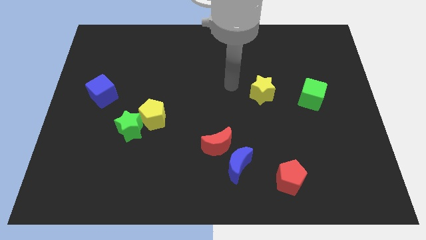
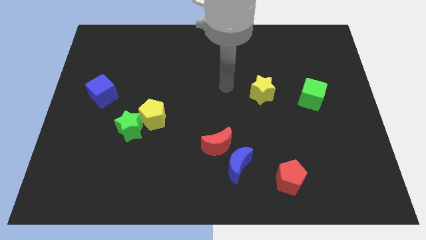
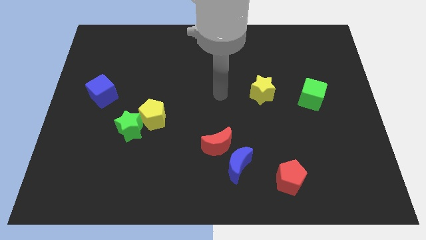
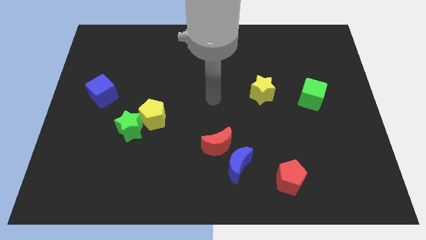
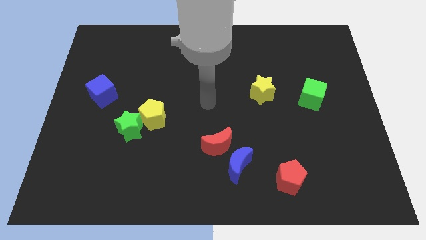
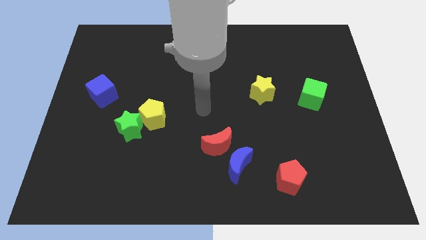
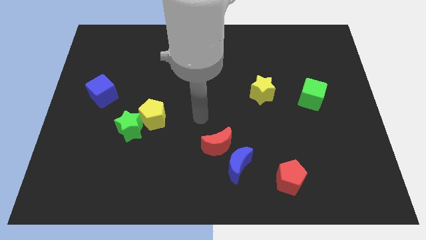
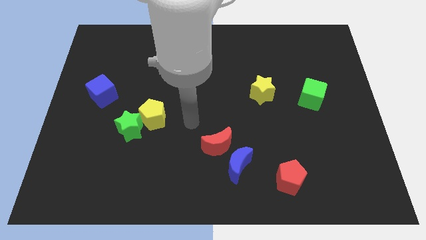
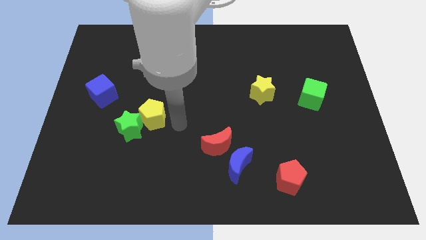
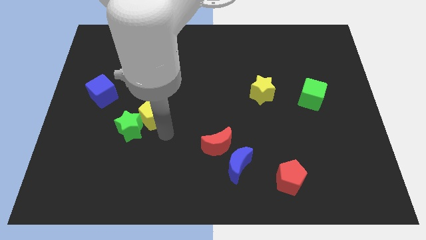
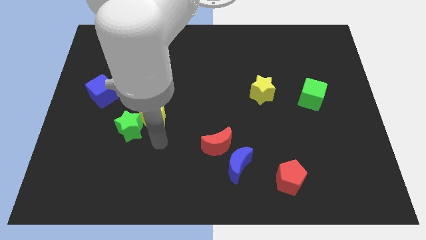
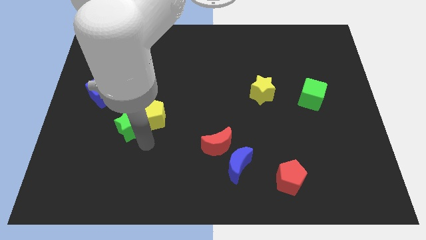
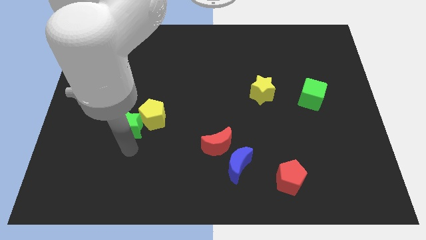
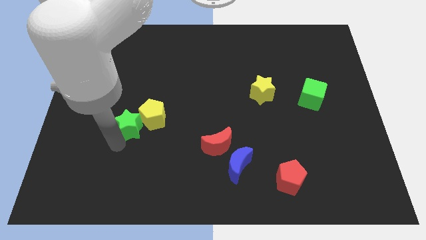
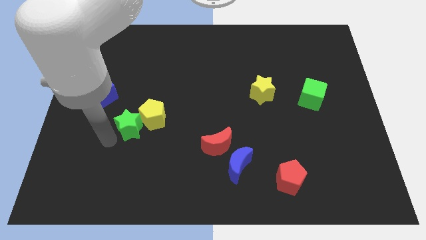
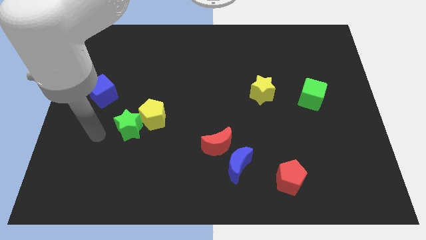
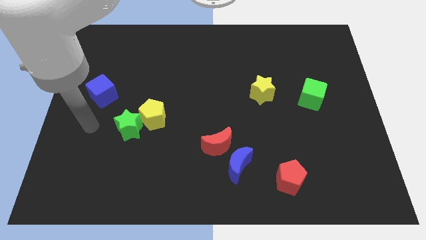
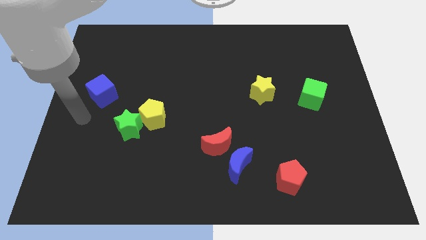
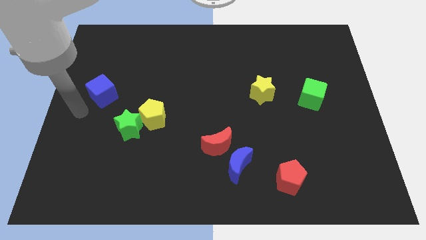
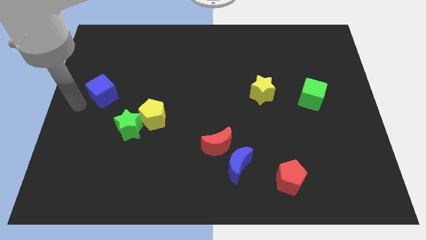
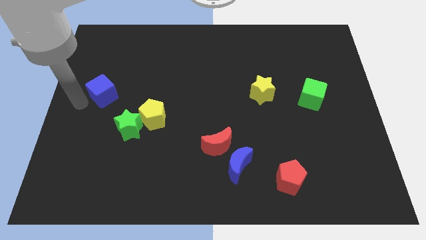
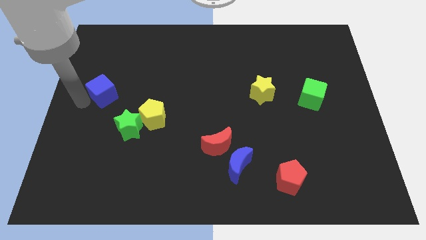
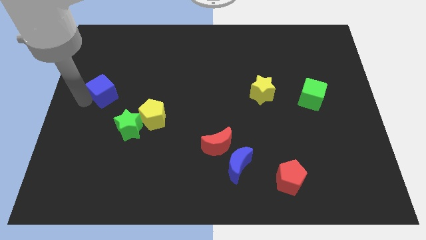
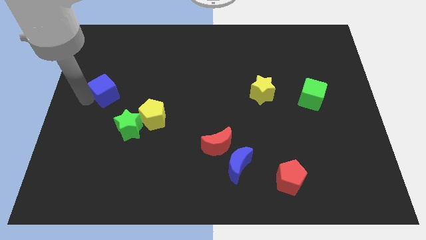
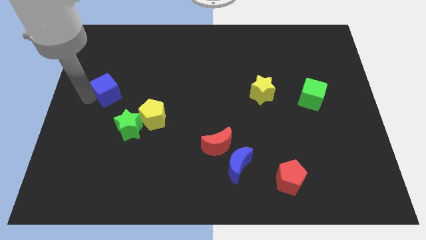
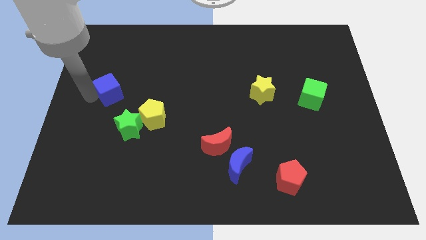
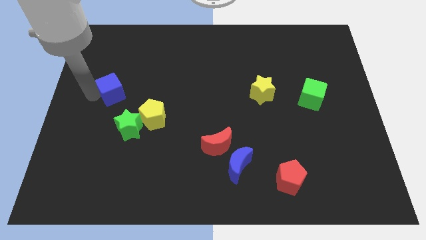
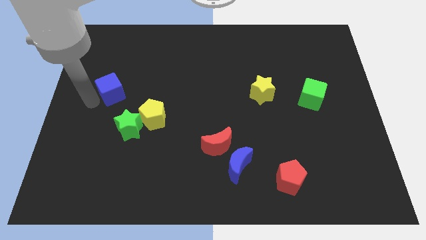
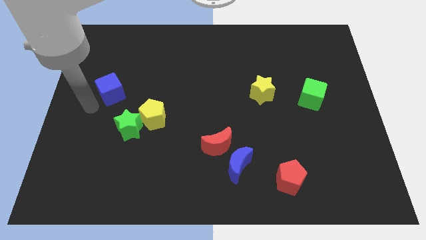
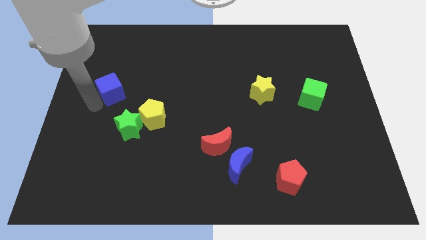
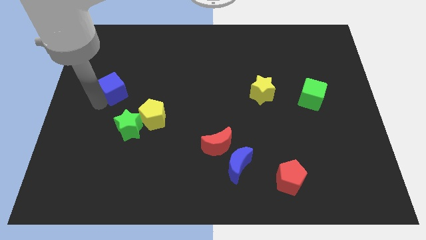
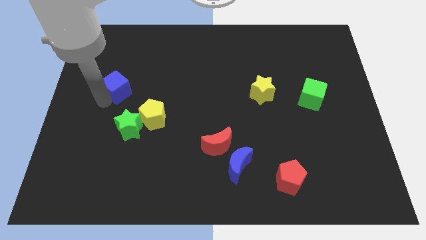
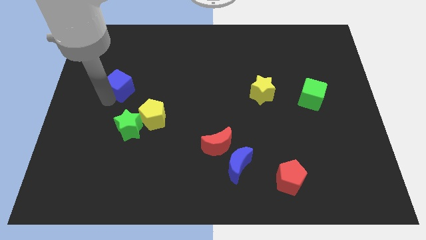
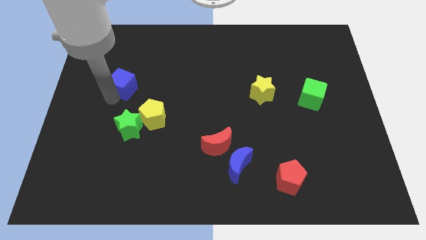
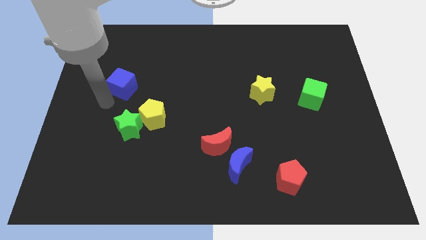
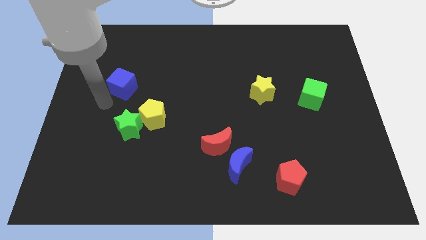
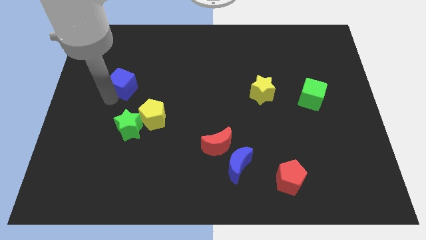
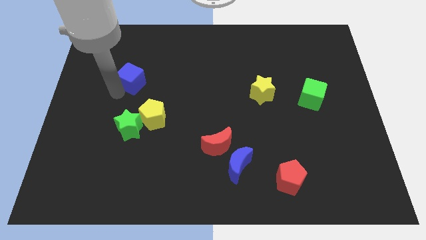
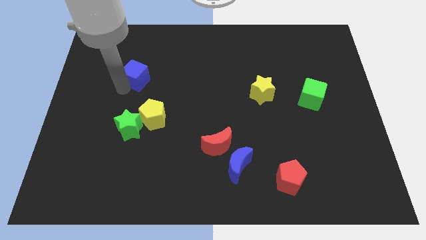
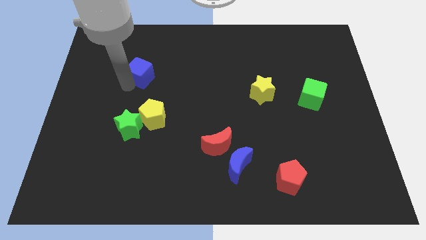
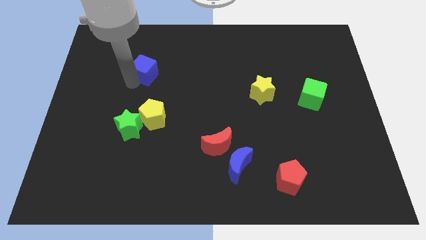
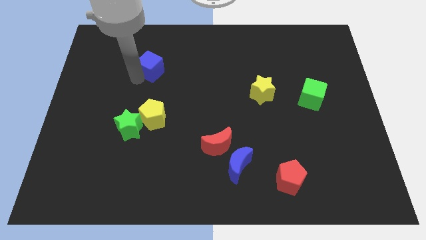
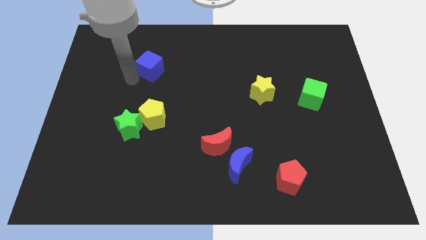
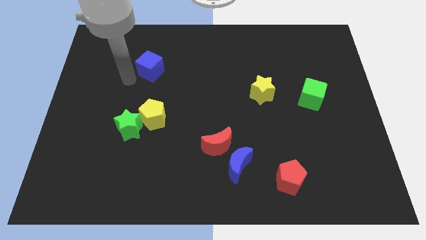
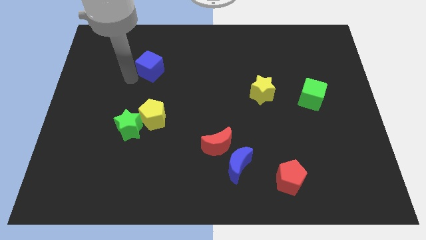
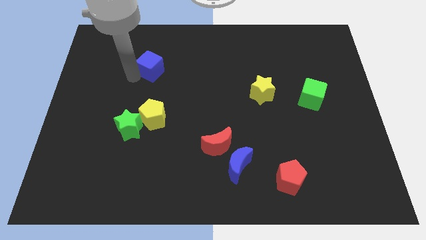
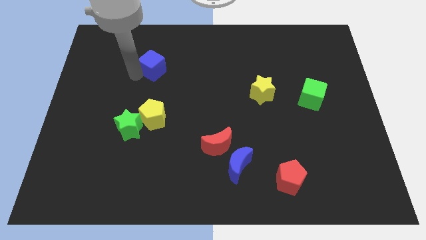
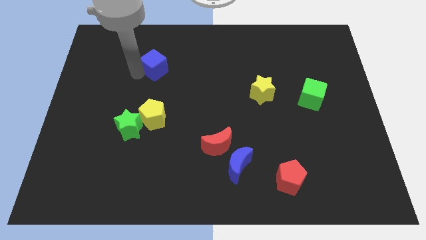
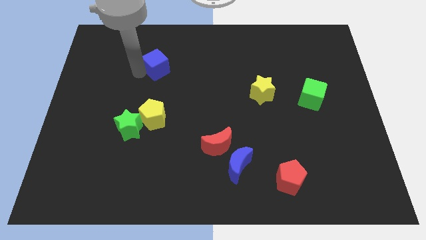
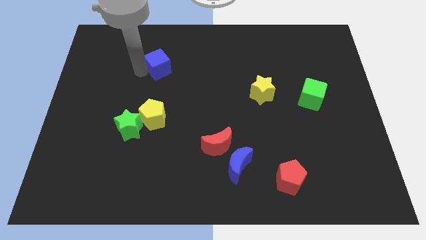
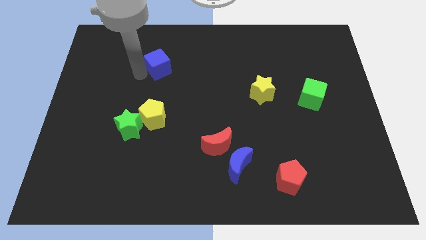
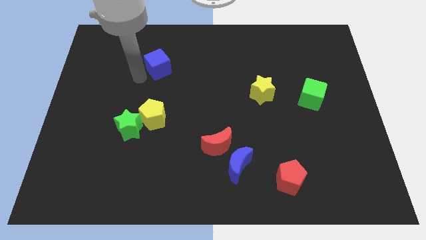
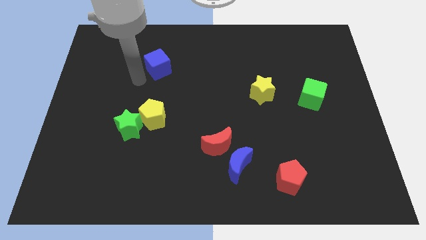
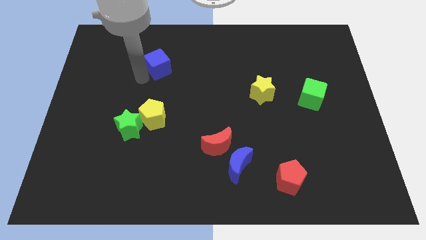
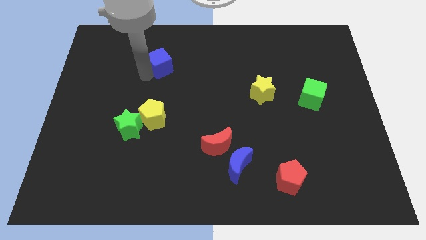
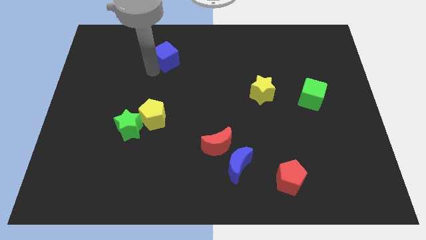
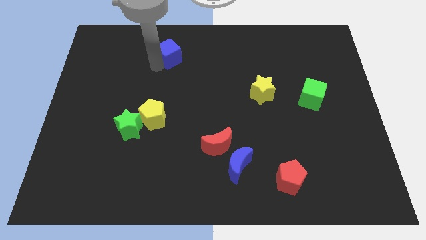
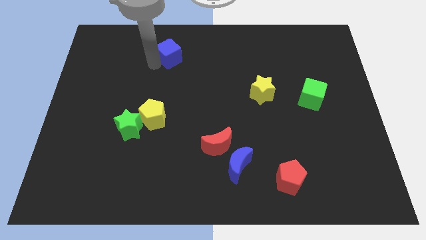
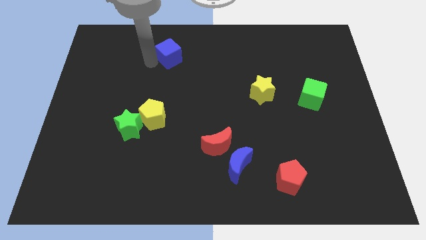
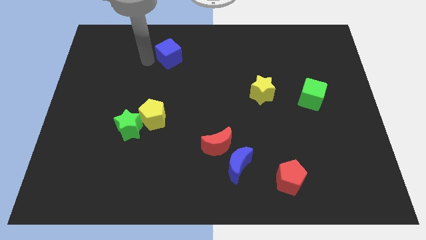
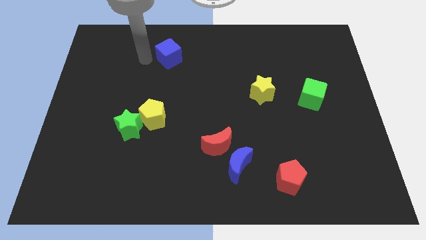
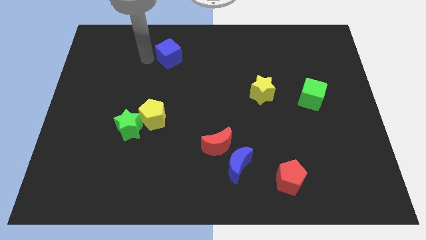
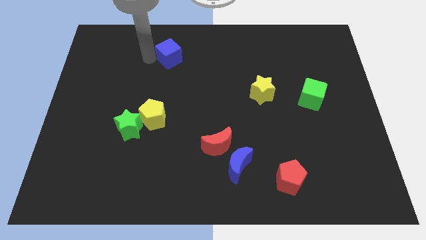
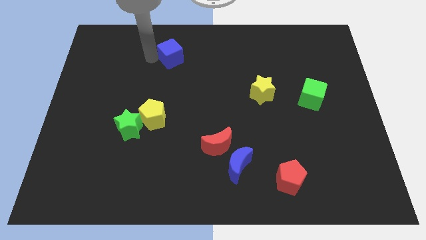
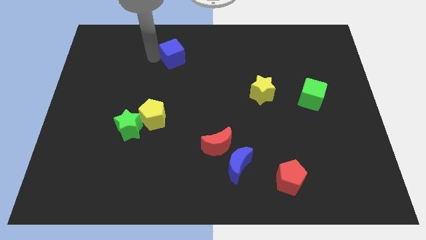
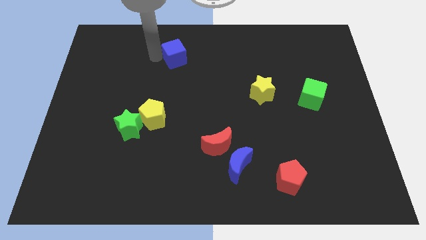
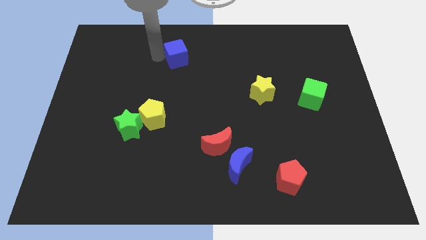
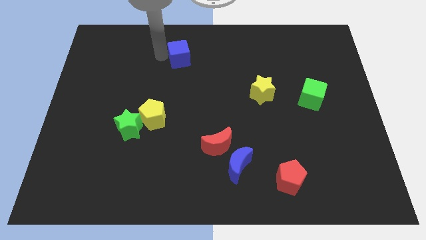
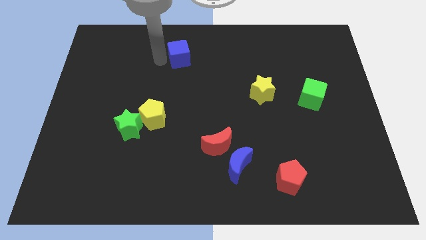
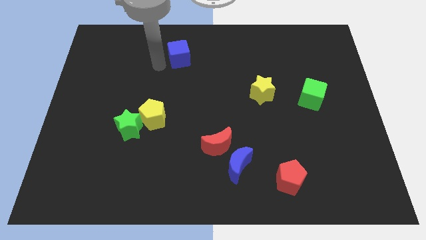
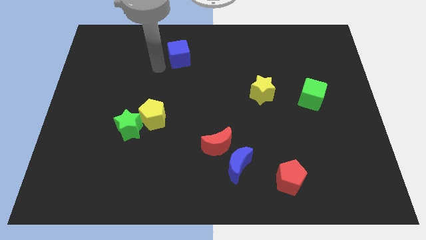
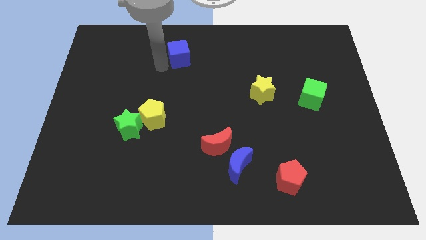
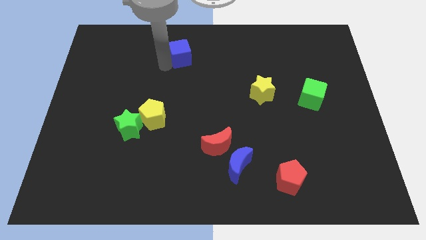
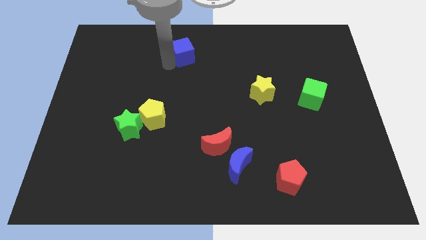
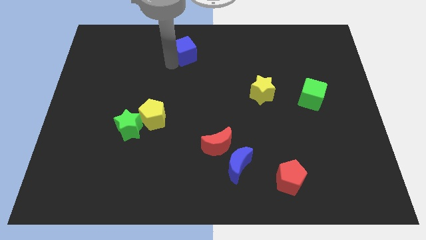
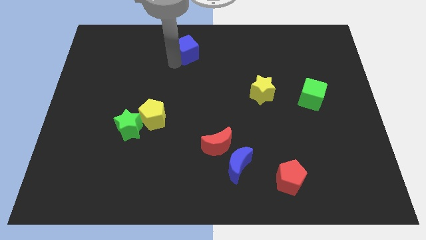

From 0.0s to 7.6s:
slide the blue cube to the towards your base
